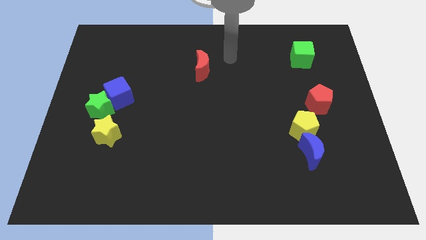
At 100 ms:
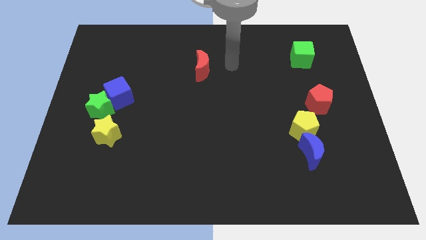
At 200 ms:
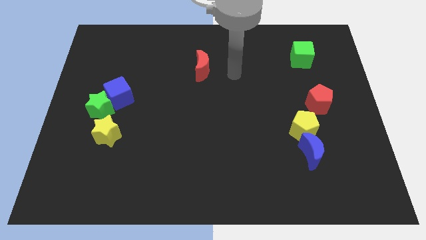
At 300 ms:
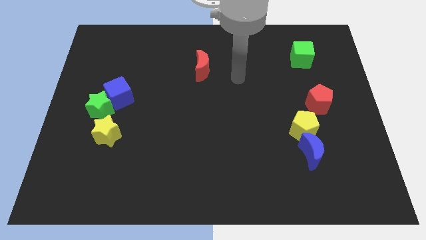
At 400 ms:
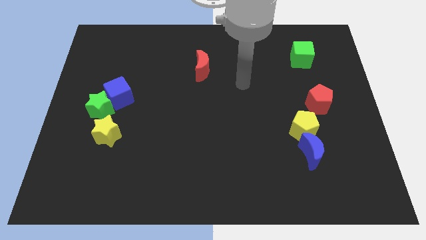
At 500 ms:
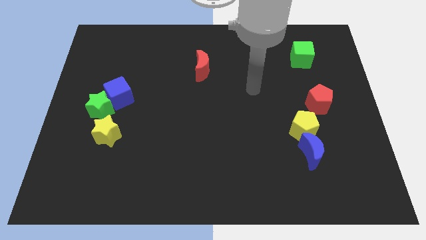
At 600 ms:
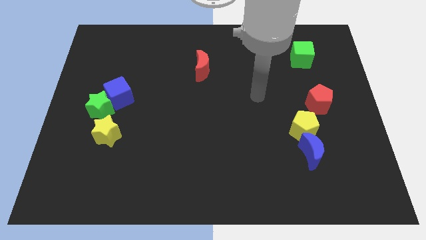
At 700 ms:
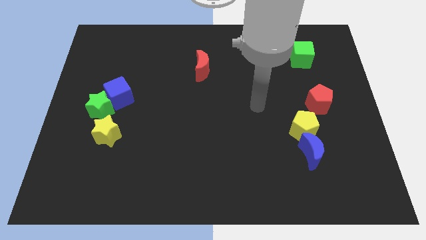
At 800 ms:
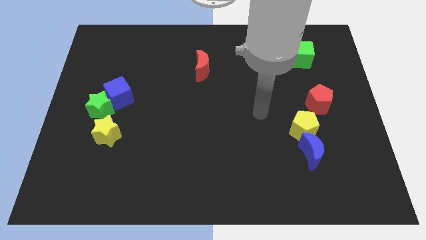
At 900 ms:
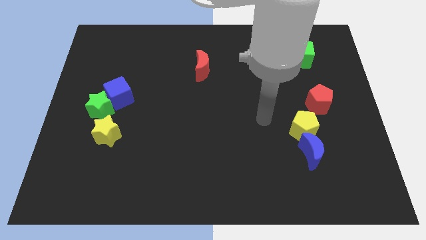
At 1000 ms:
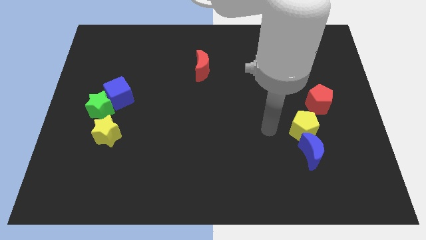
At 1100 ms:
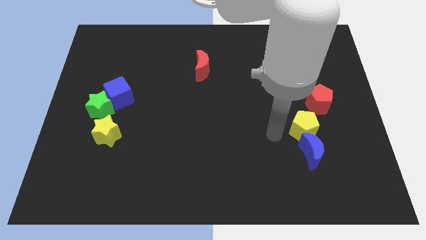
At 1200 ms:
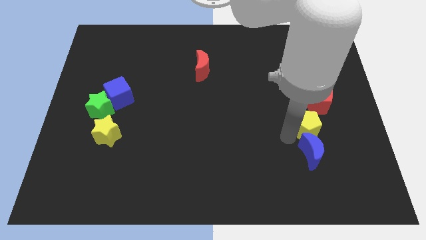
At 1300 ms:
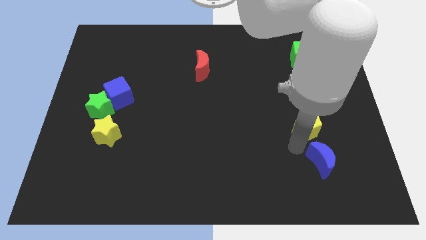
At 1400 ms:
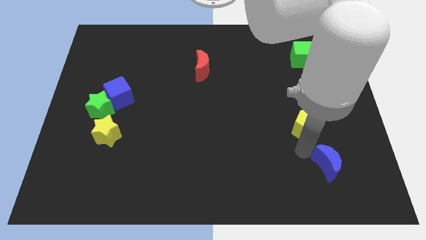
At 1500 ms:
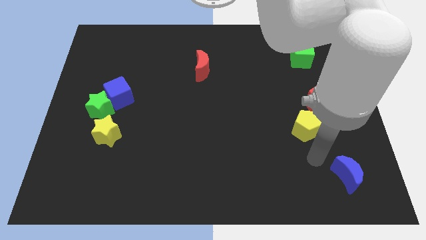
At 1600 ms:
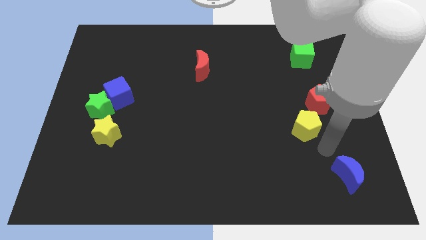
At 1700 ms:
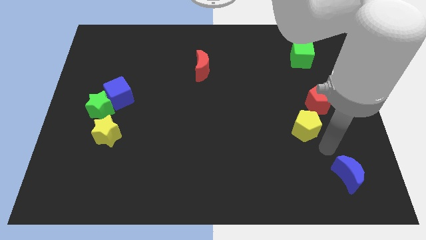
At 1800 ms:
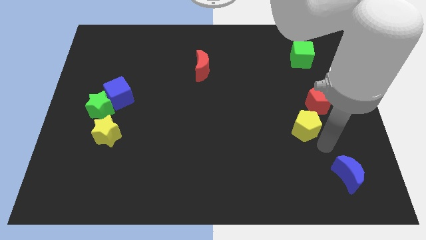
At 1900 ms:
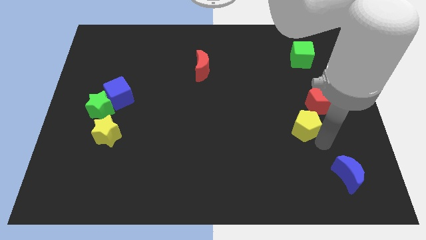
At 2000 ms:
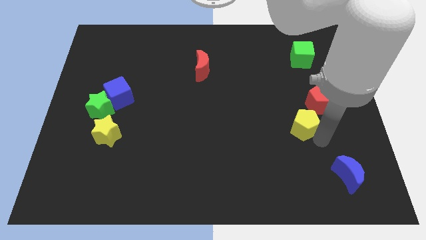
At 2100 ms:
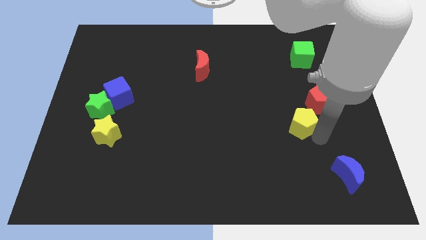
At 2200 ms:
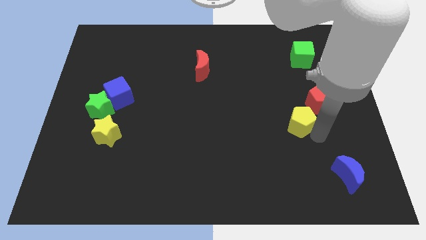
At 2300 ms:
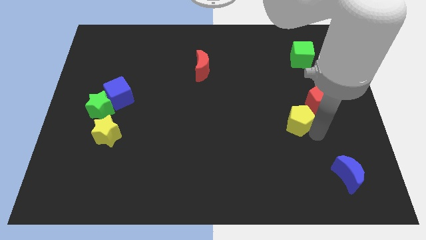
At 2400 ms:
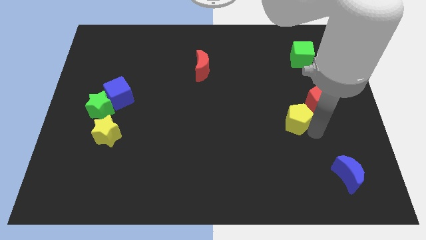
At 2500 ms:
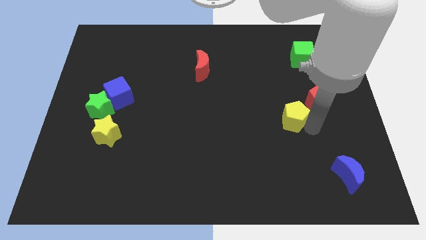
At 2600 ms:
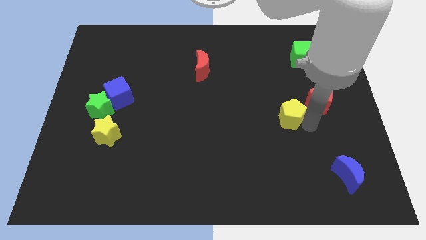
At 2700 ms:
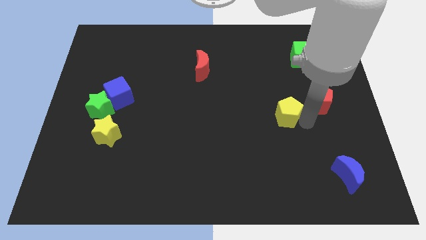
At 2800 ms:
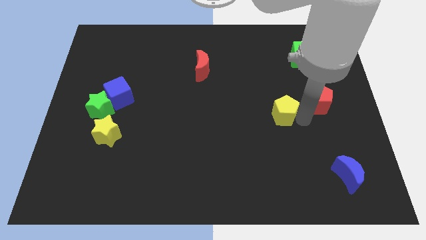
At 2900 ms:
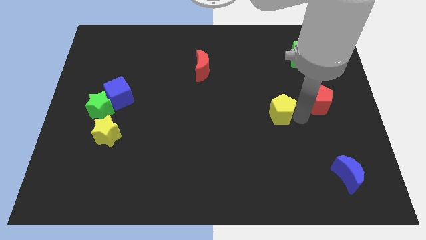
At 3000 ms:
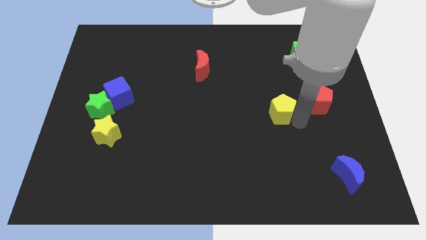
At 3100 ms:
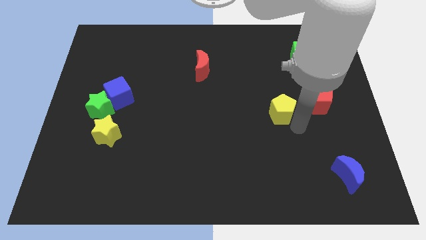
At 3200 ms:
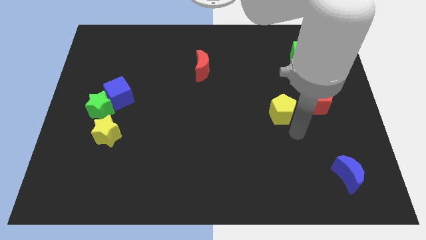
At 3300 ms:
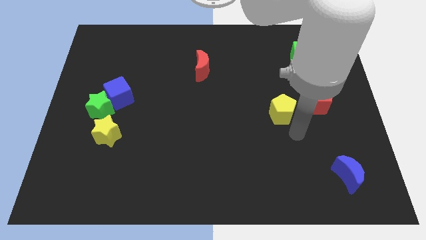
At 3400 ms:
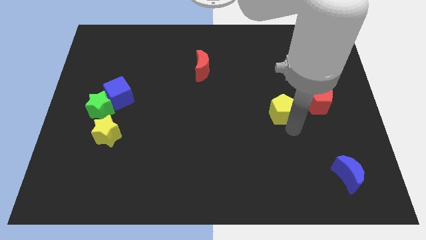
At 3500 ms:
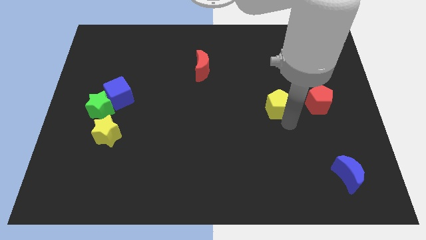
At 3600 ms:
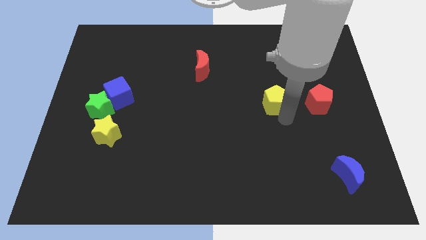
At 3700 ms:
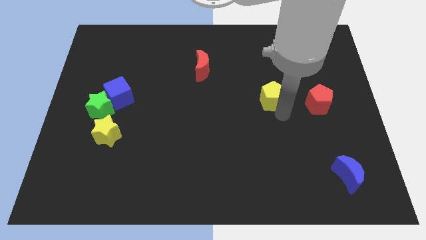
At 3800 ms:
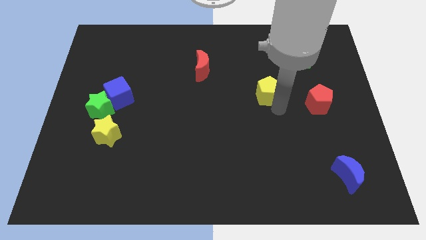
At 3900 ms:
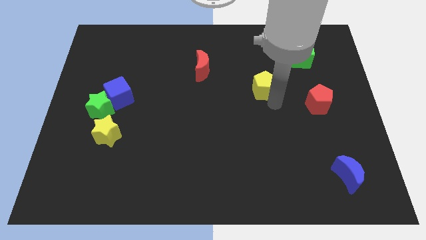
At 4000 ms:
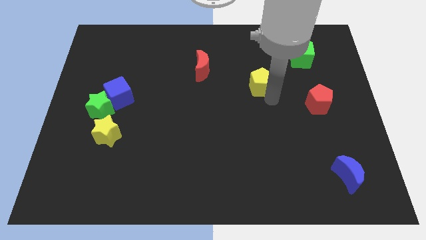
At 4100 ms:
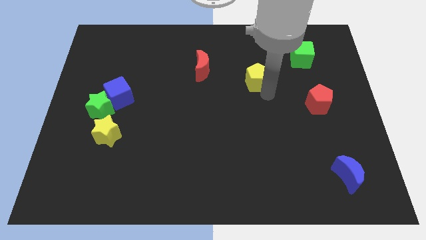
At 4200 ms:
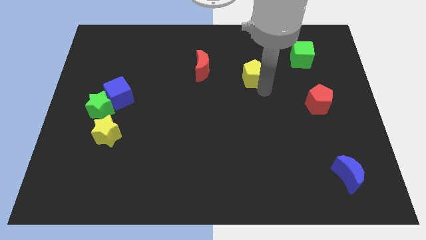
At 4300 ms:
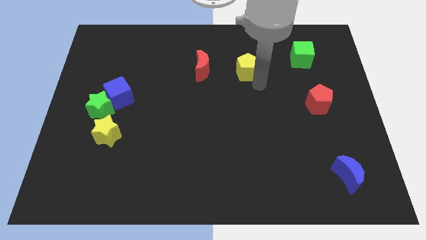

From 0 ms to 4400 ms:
slide the yellow pentagon up and left diagonally

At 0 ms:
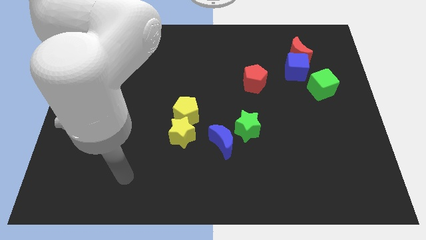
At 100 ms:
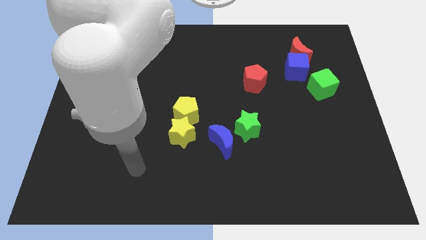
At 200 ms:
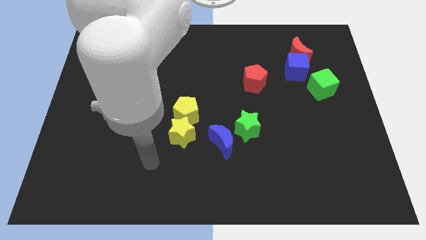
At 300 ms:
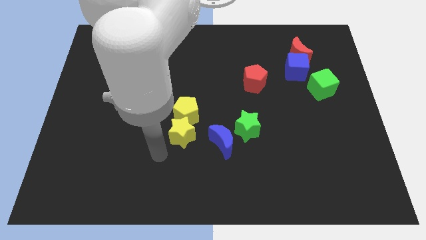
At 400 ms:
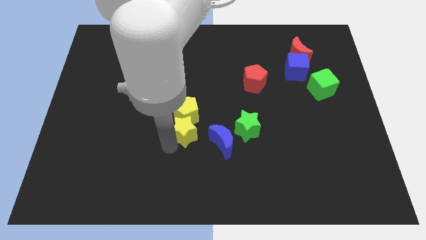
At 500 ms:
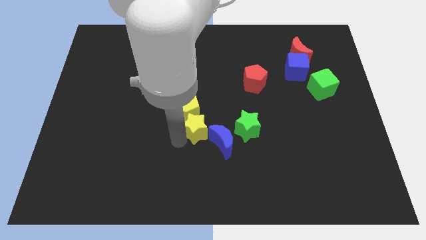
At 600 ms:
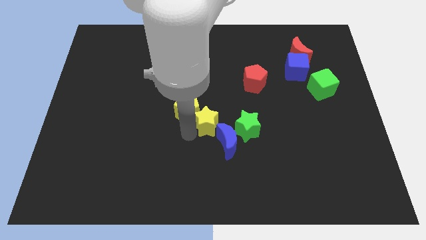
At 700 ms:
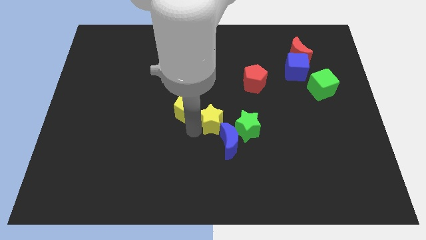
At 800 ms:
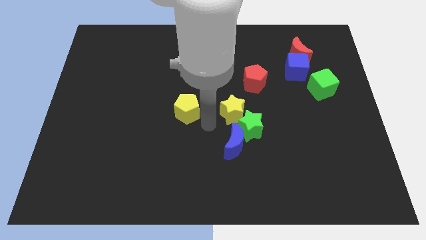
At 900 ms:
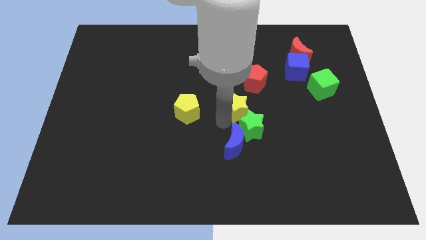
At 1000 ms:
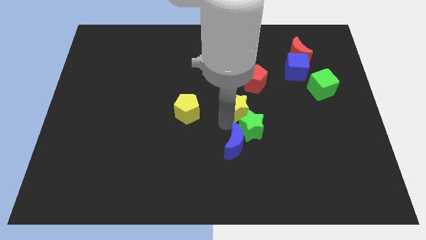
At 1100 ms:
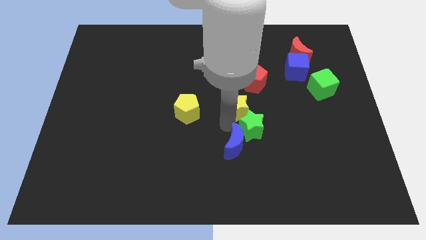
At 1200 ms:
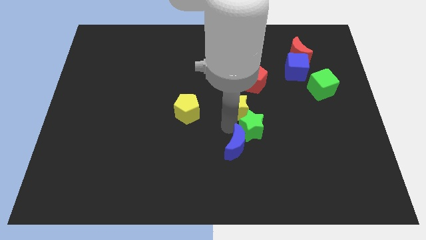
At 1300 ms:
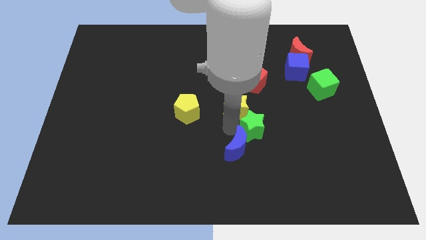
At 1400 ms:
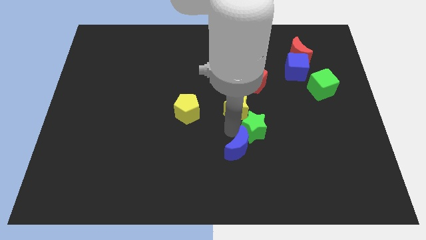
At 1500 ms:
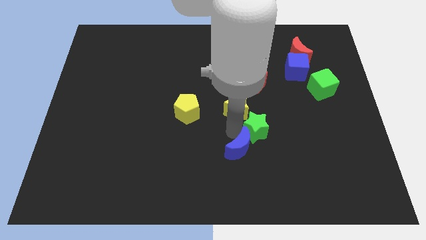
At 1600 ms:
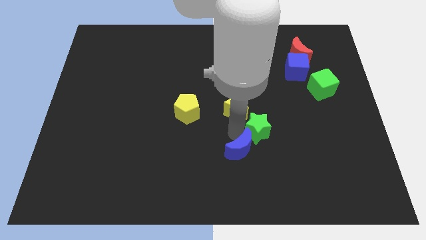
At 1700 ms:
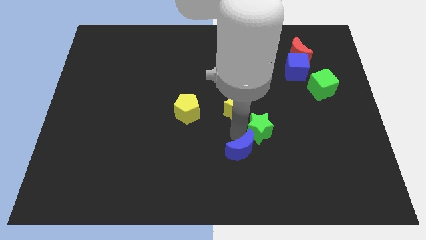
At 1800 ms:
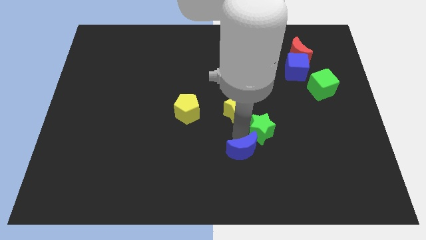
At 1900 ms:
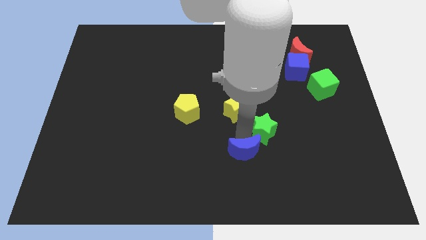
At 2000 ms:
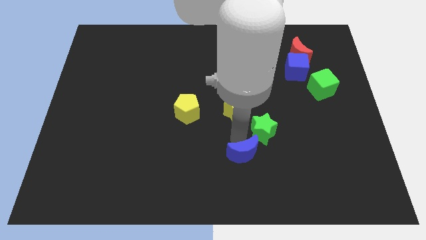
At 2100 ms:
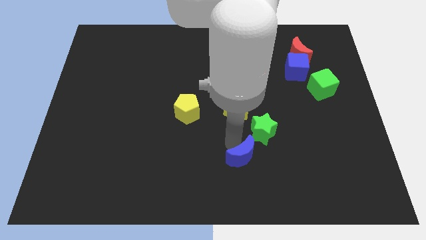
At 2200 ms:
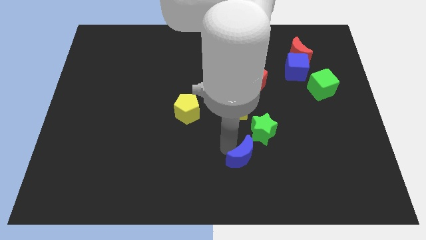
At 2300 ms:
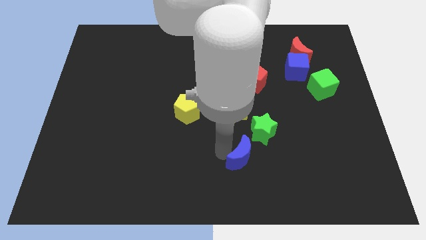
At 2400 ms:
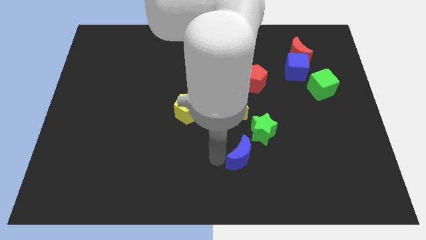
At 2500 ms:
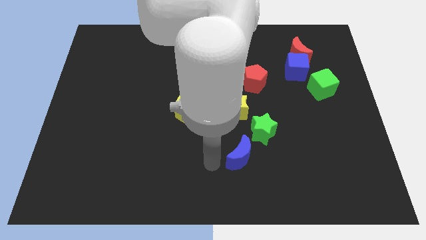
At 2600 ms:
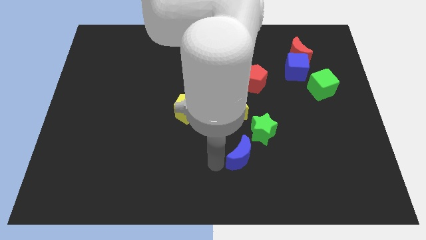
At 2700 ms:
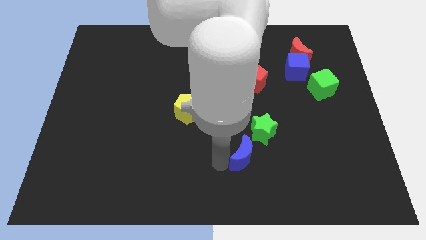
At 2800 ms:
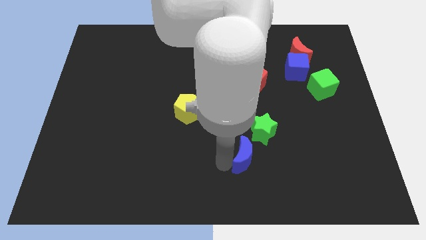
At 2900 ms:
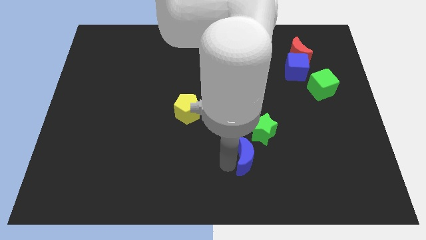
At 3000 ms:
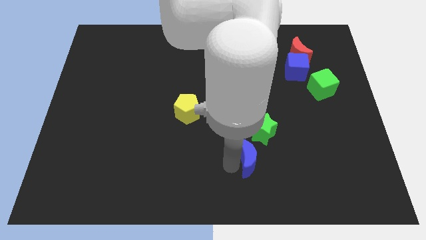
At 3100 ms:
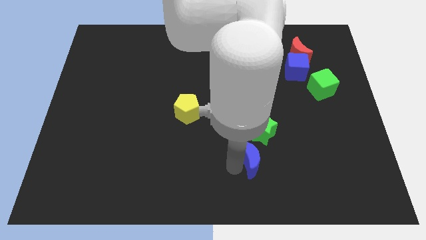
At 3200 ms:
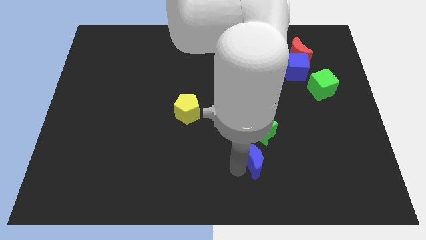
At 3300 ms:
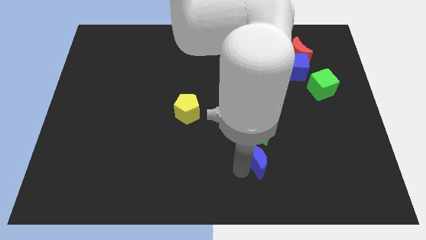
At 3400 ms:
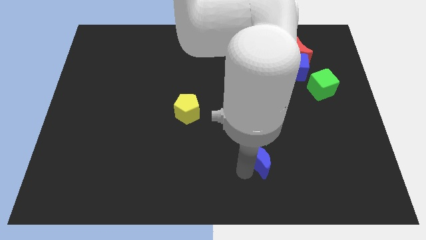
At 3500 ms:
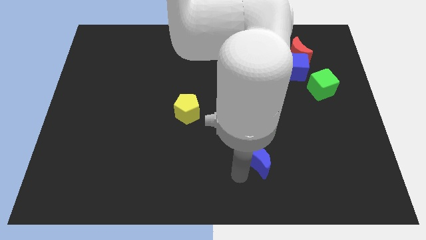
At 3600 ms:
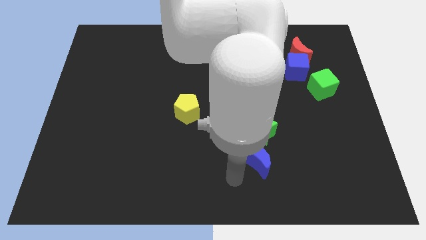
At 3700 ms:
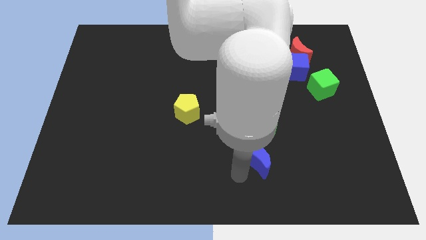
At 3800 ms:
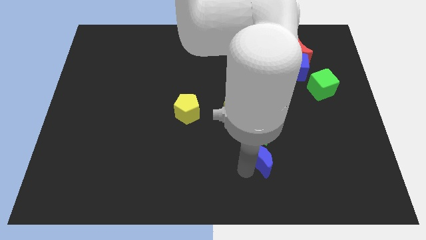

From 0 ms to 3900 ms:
push the blue moon slightly right
